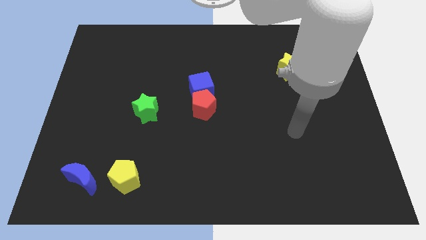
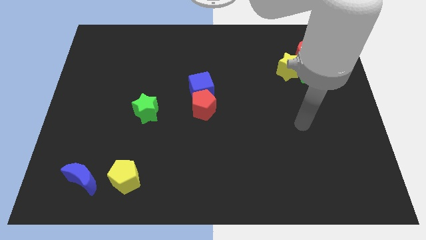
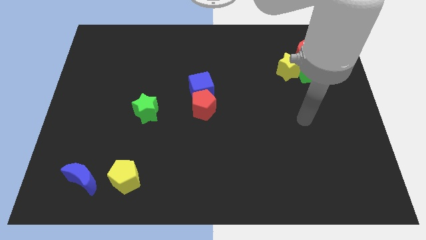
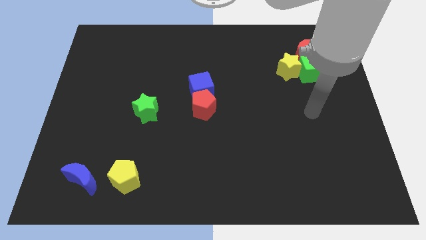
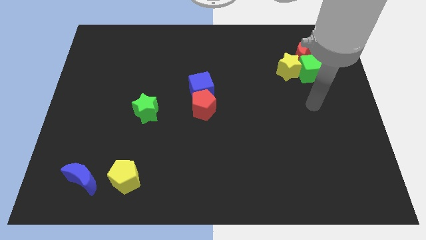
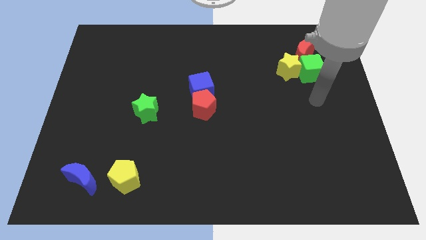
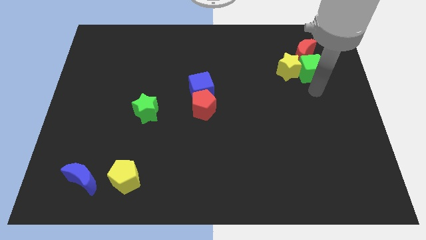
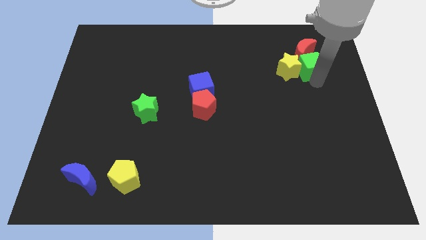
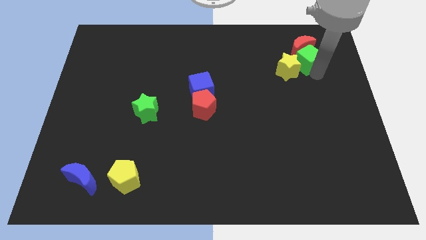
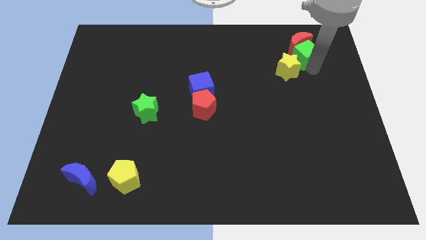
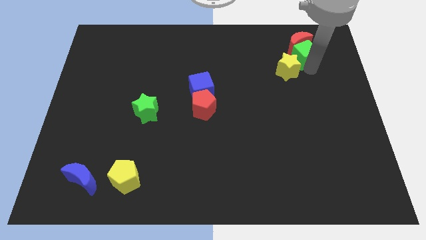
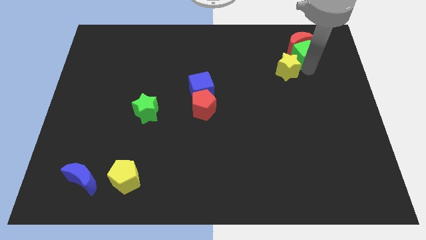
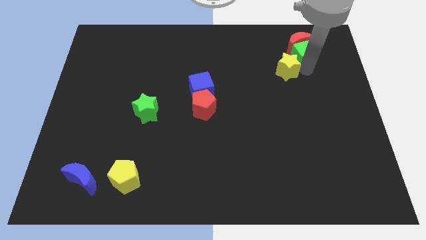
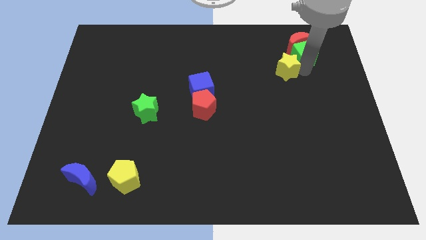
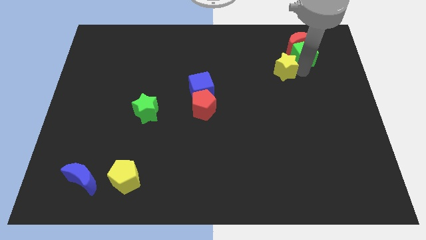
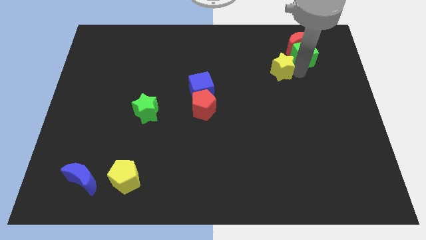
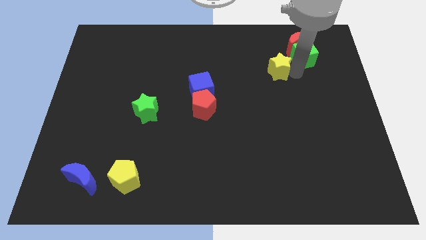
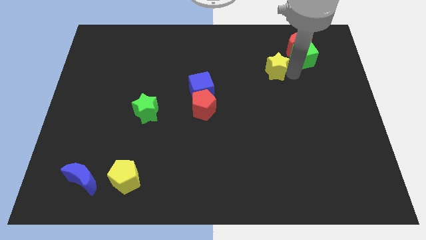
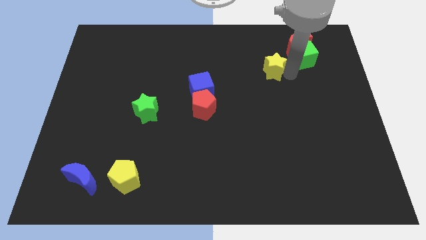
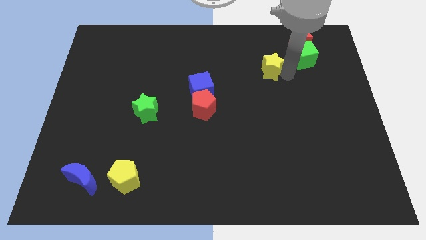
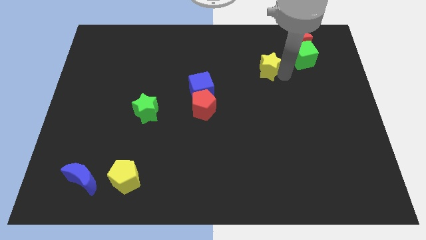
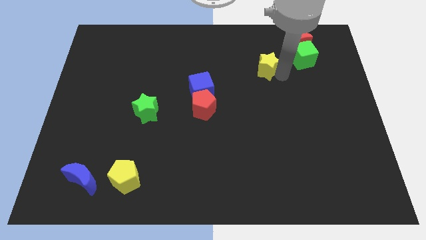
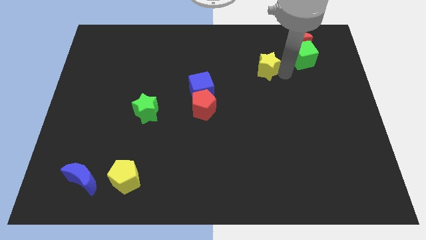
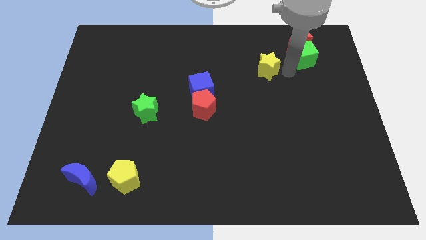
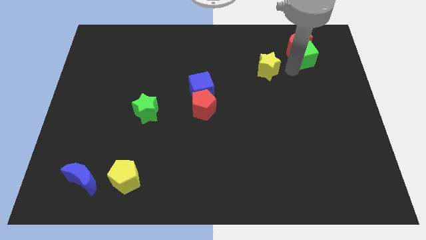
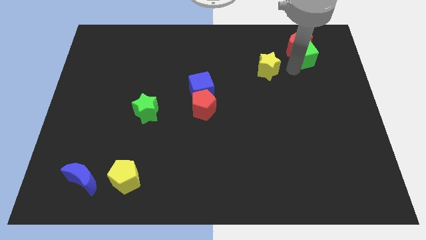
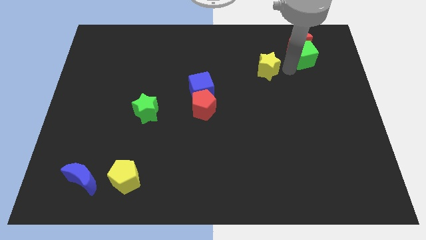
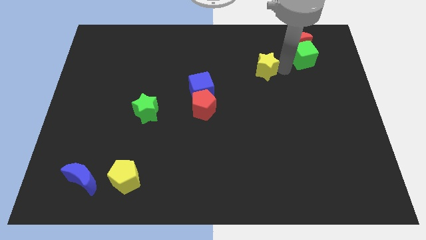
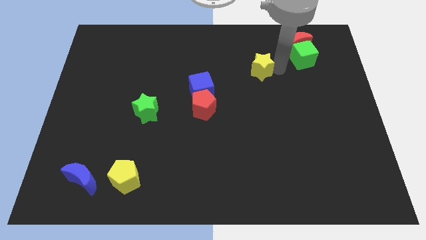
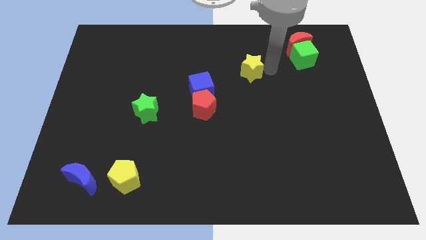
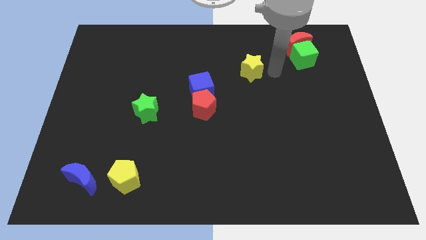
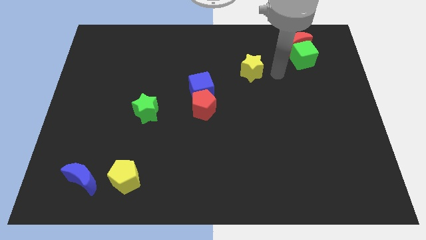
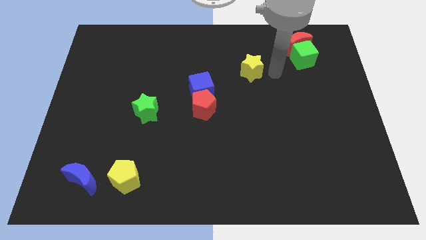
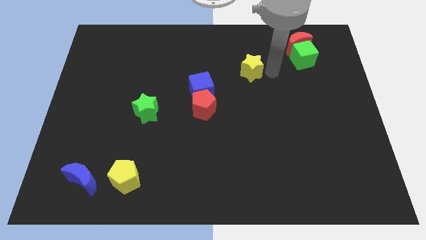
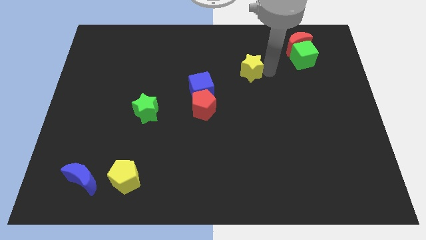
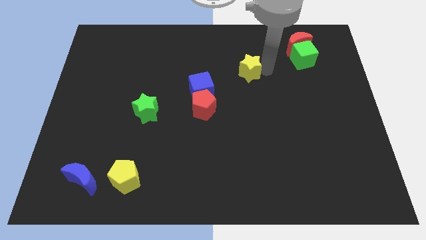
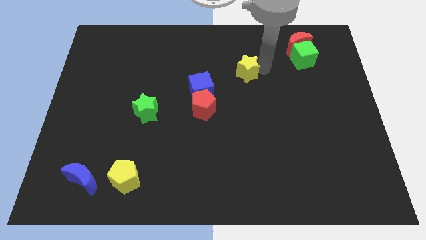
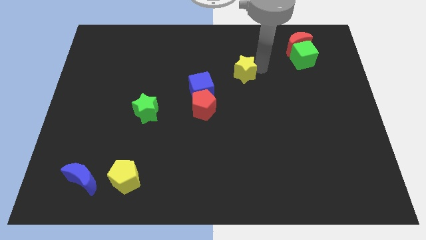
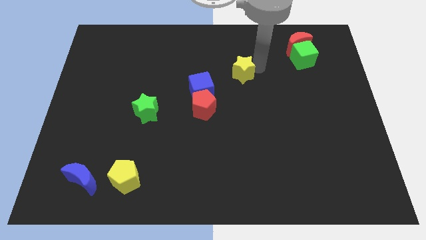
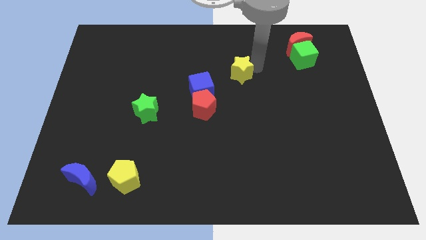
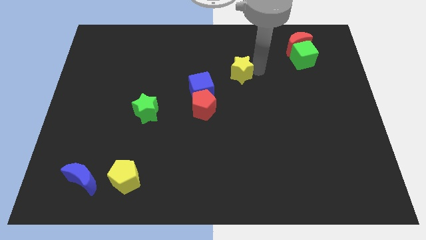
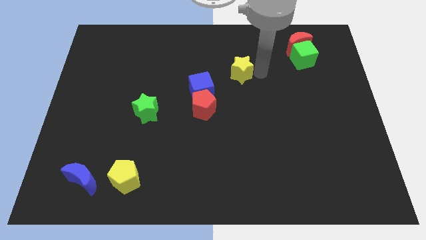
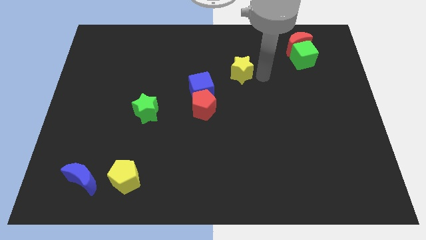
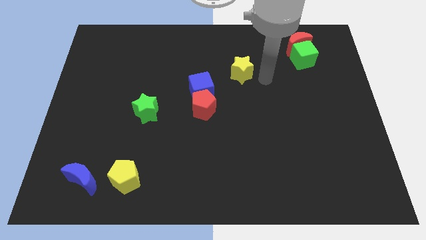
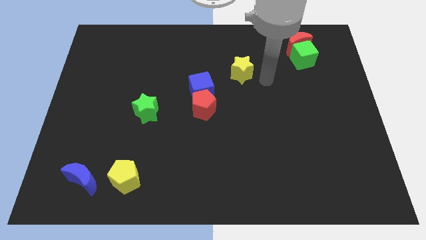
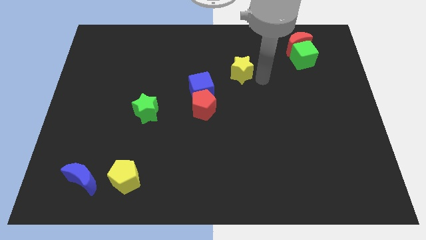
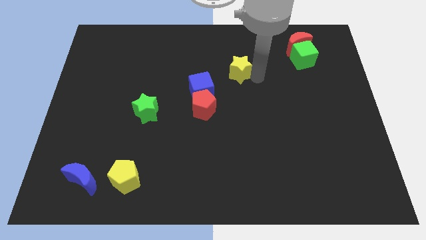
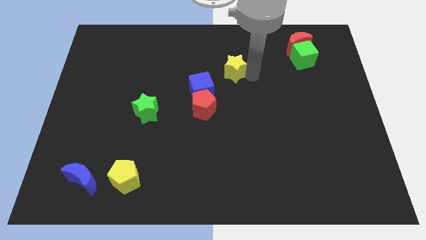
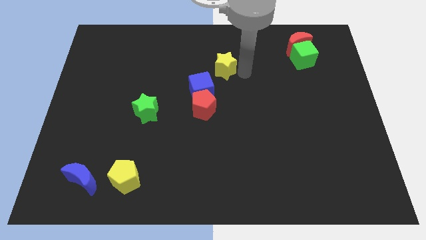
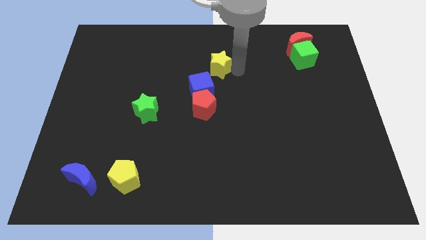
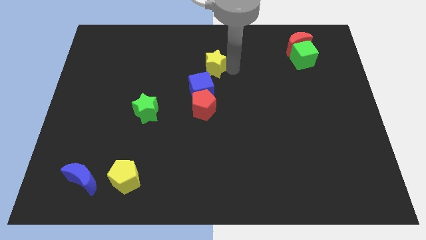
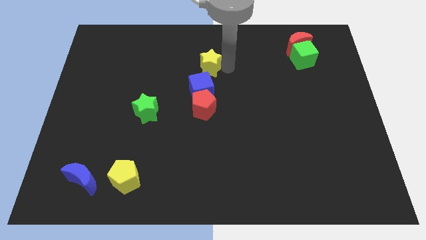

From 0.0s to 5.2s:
push the yellow star to the left

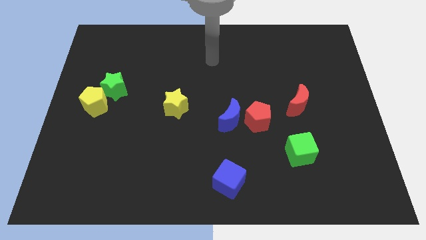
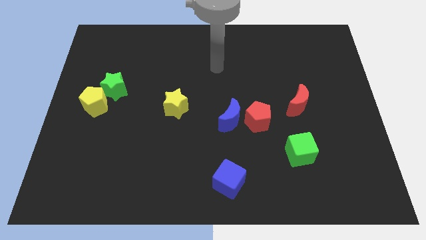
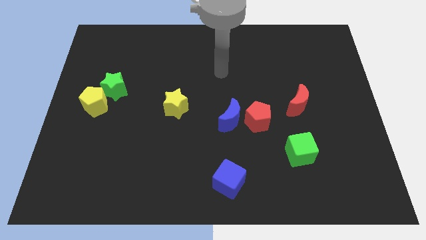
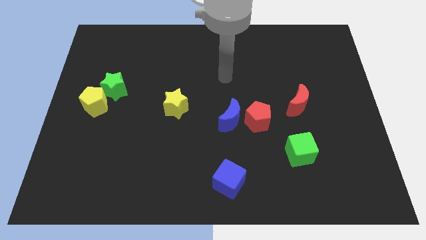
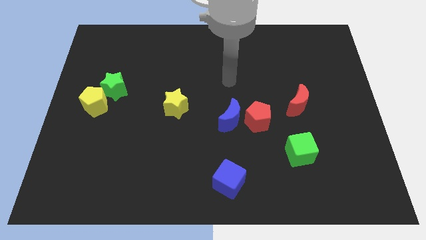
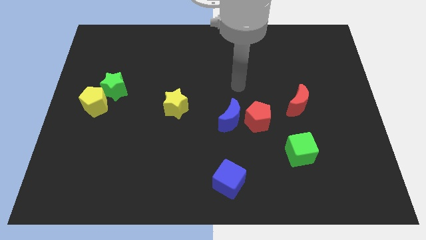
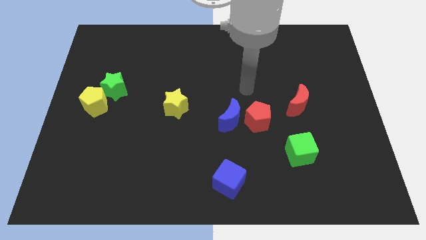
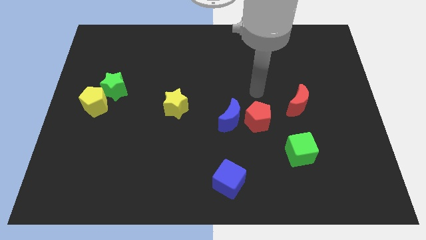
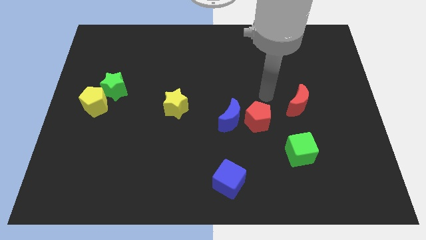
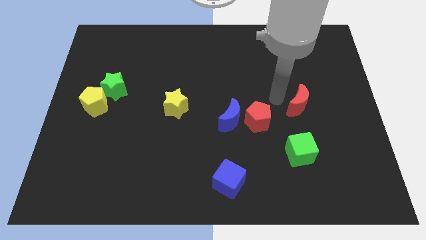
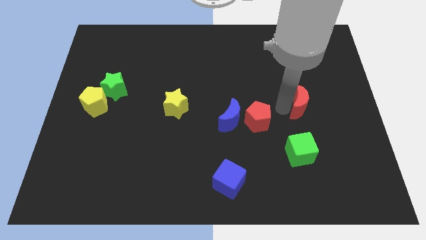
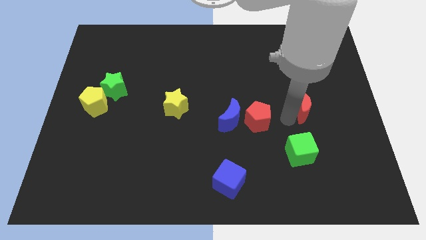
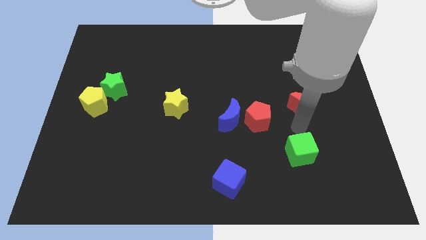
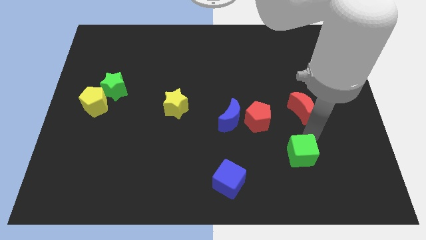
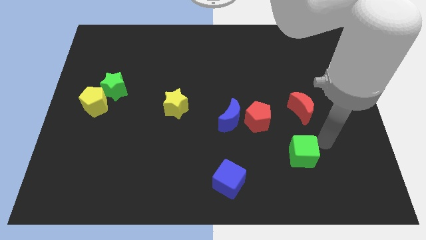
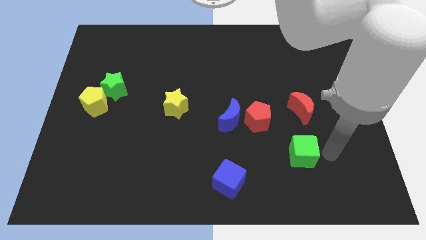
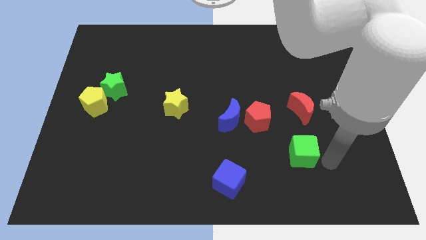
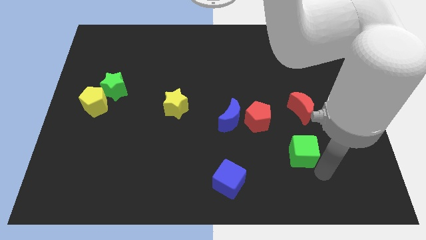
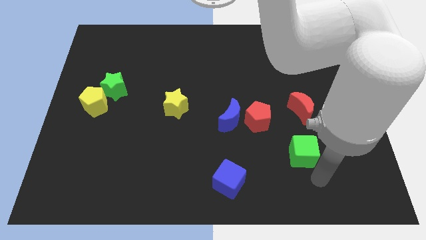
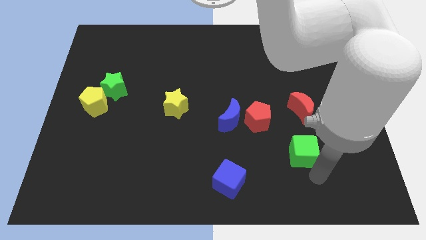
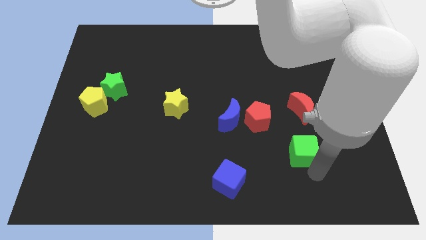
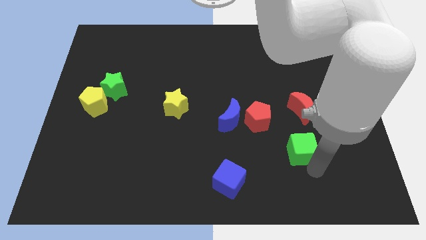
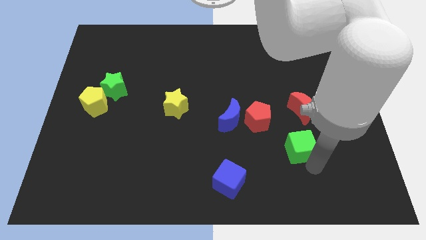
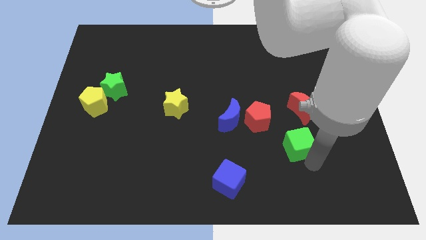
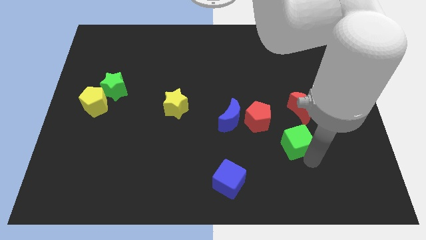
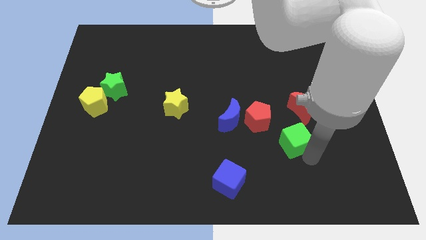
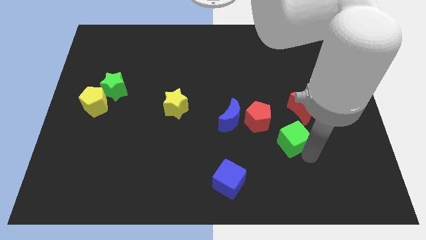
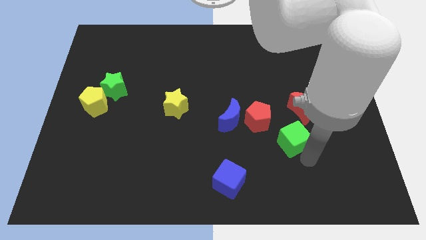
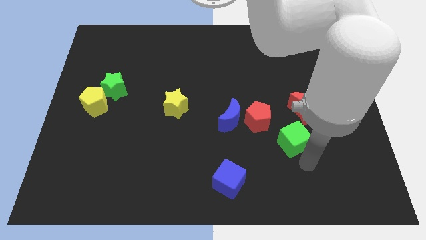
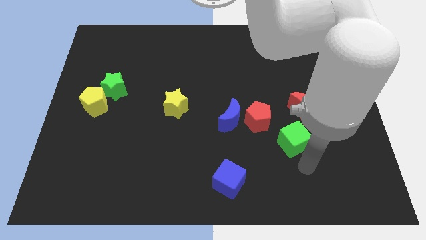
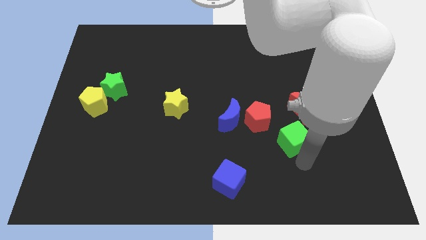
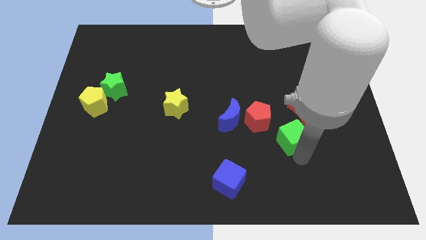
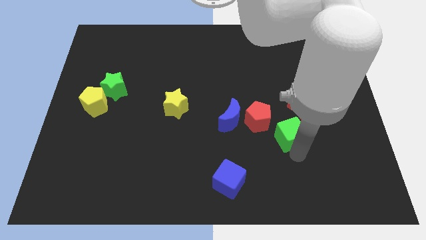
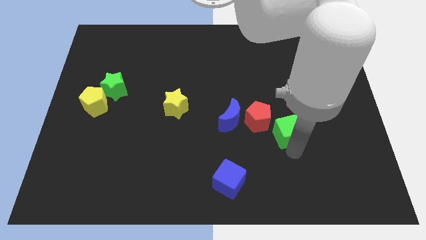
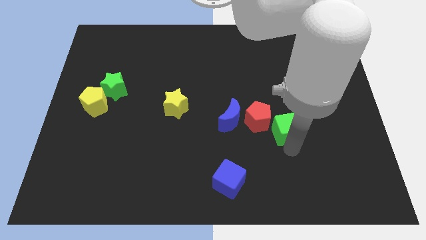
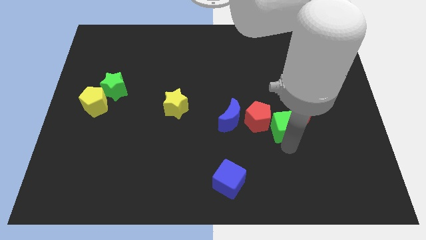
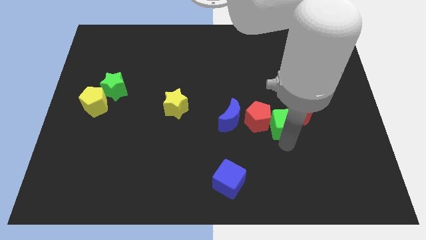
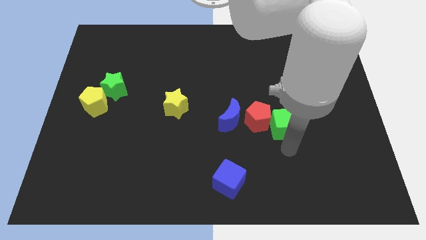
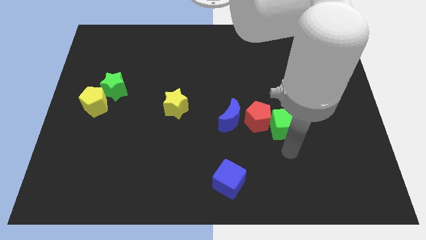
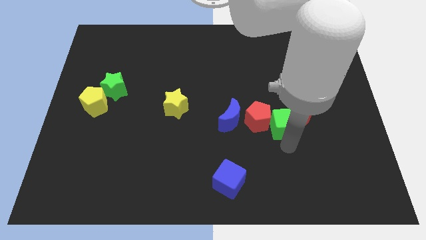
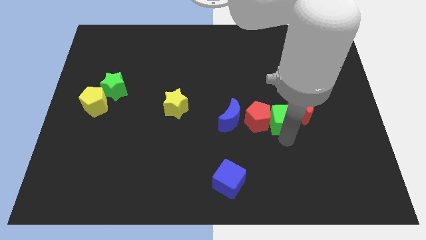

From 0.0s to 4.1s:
slightly move the green cube up and left diagonally
